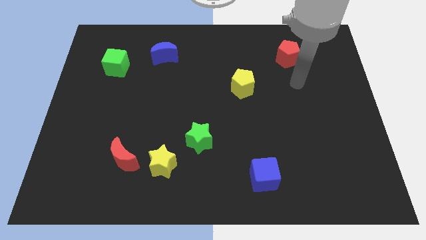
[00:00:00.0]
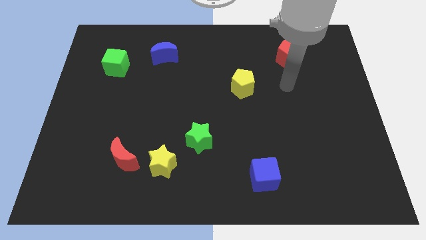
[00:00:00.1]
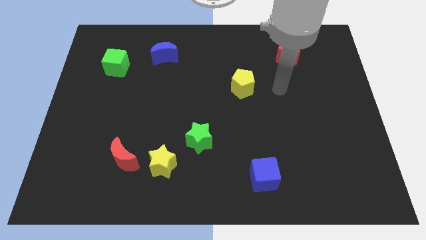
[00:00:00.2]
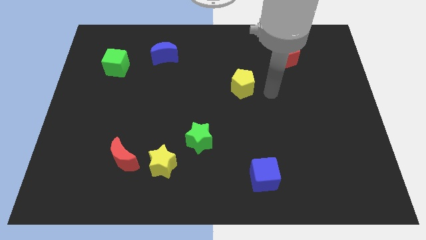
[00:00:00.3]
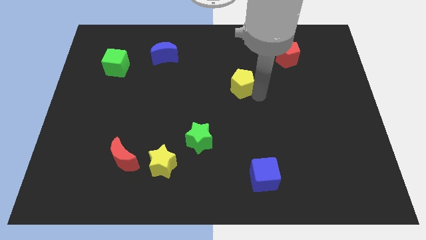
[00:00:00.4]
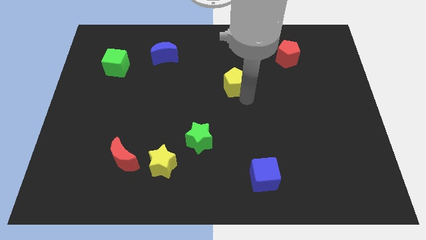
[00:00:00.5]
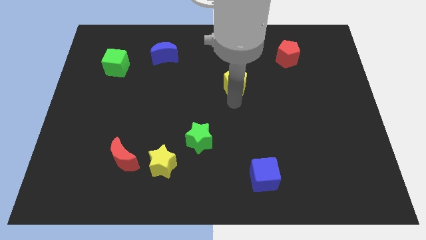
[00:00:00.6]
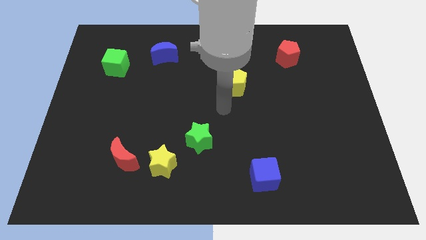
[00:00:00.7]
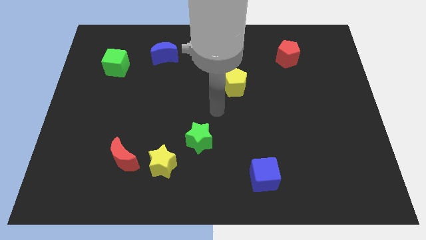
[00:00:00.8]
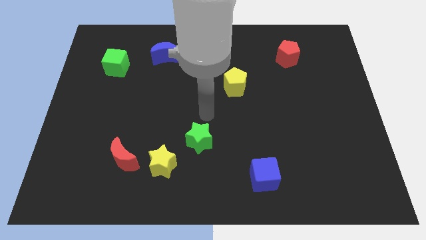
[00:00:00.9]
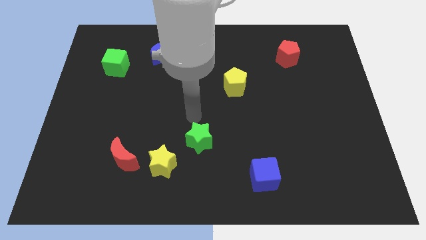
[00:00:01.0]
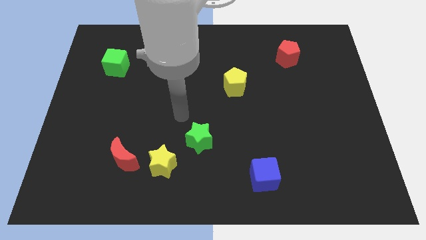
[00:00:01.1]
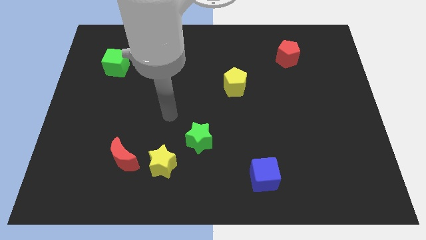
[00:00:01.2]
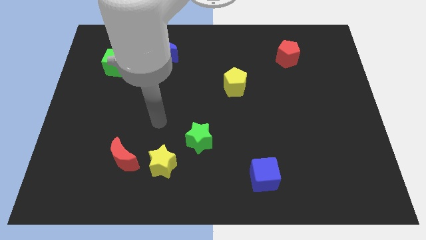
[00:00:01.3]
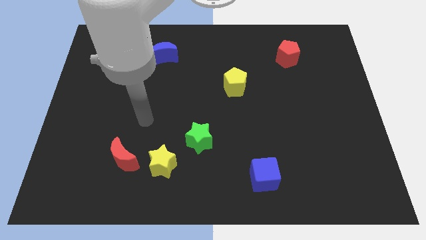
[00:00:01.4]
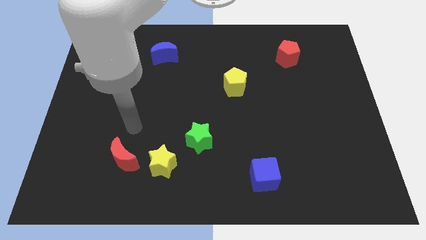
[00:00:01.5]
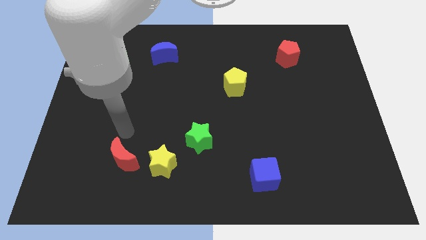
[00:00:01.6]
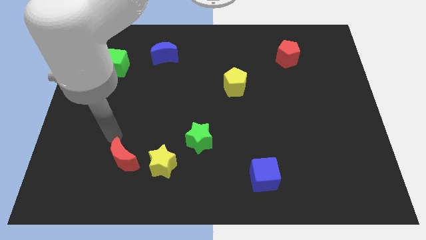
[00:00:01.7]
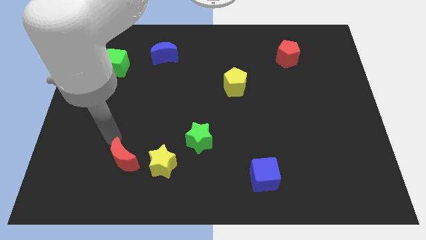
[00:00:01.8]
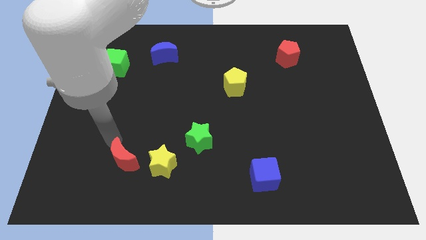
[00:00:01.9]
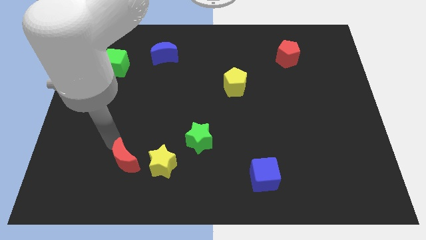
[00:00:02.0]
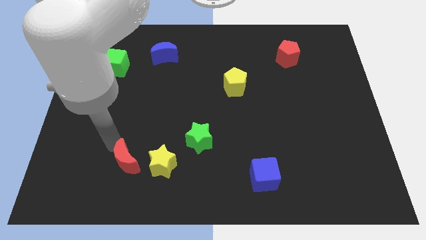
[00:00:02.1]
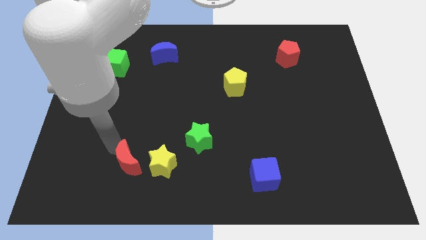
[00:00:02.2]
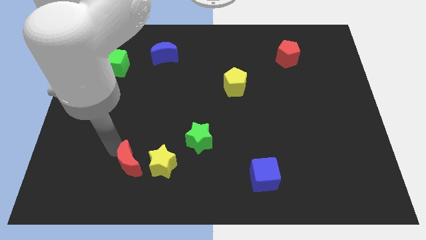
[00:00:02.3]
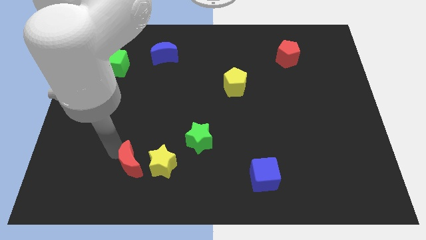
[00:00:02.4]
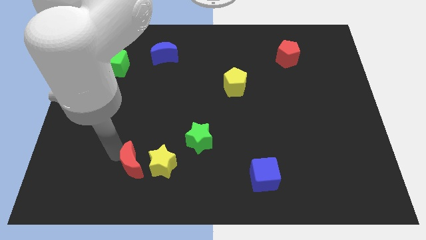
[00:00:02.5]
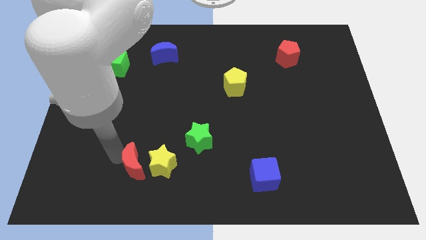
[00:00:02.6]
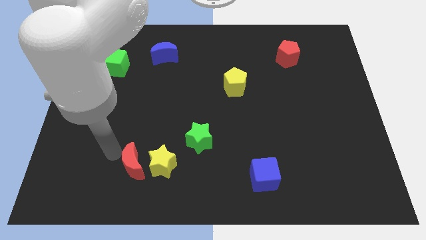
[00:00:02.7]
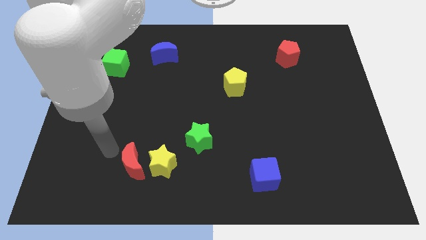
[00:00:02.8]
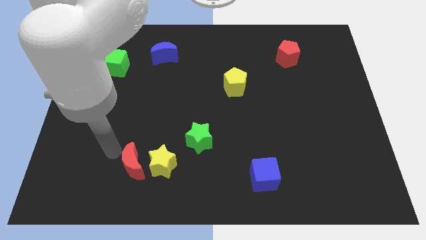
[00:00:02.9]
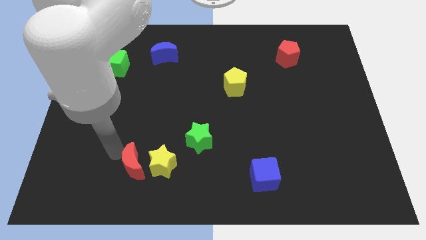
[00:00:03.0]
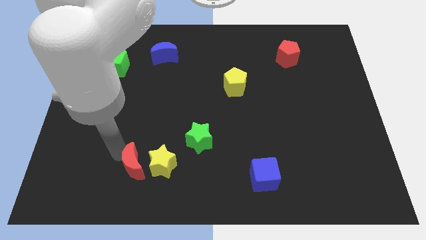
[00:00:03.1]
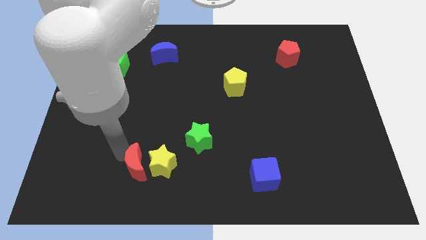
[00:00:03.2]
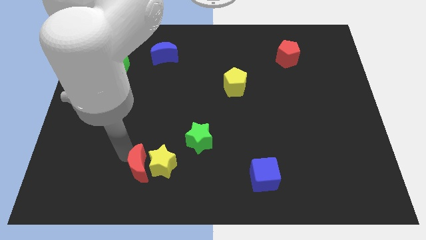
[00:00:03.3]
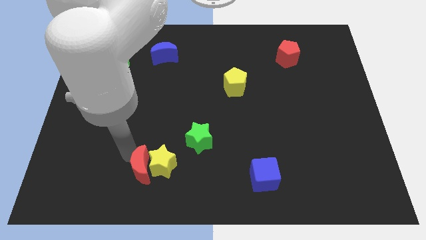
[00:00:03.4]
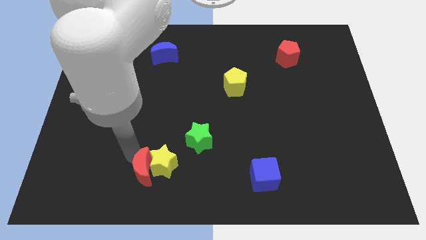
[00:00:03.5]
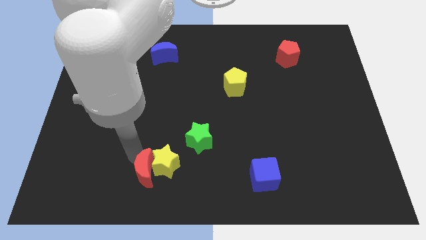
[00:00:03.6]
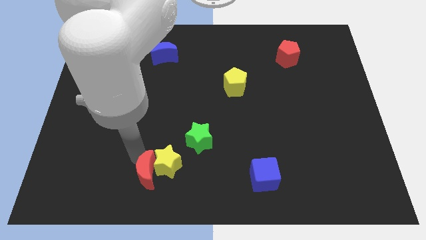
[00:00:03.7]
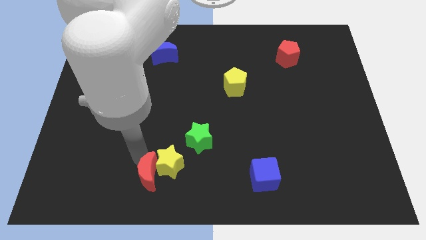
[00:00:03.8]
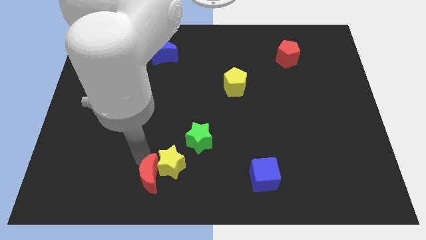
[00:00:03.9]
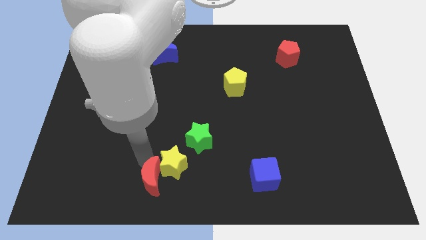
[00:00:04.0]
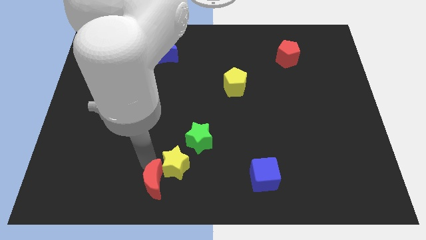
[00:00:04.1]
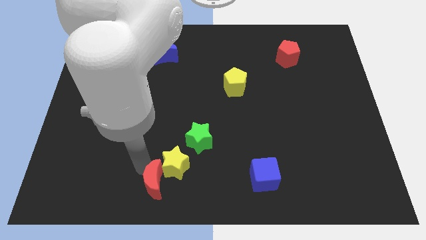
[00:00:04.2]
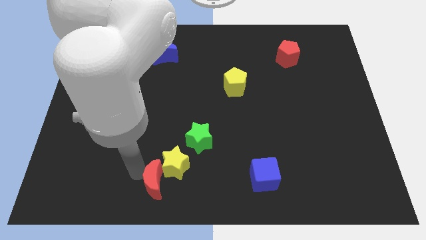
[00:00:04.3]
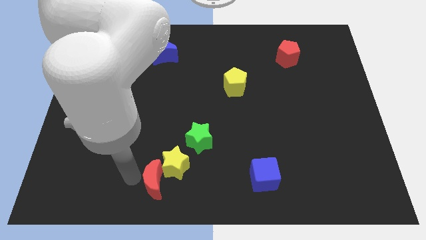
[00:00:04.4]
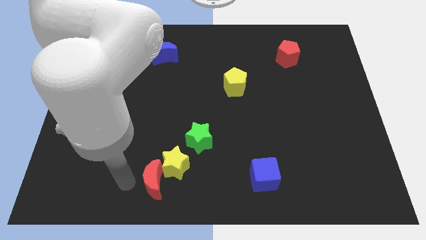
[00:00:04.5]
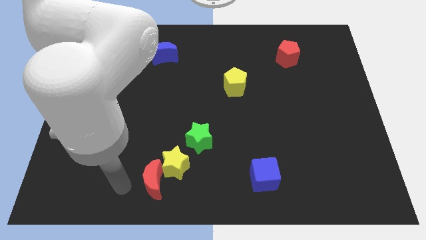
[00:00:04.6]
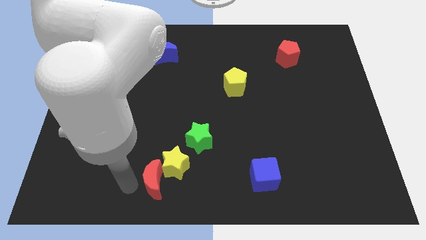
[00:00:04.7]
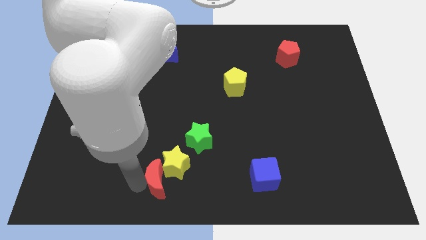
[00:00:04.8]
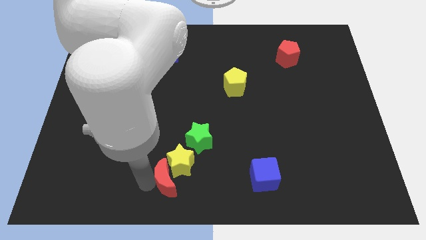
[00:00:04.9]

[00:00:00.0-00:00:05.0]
move the red moon to the right slightly

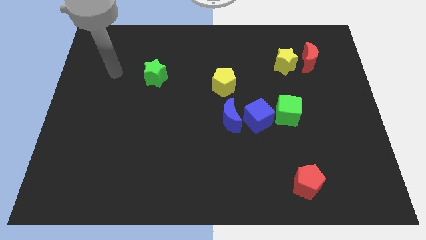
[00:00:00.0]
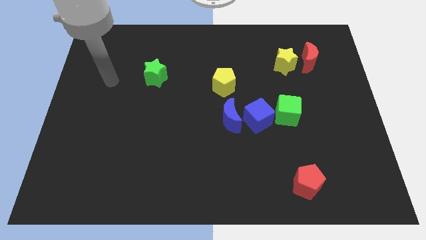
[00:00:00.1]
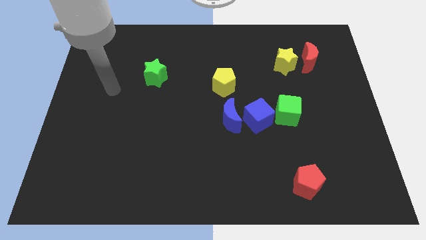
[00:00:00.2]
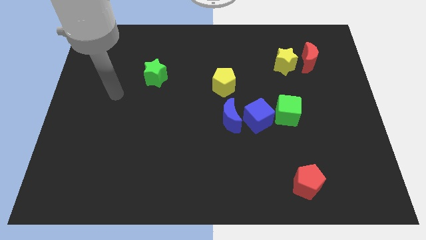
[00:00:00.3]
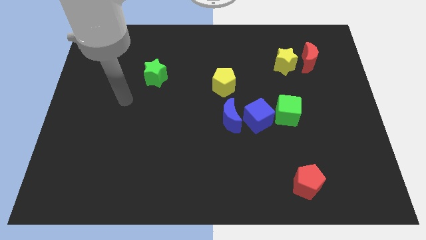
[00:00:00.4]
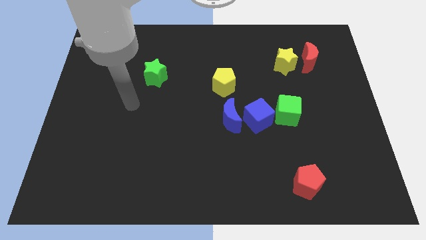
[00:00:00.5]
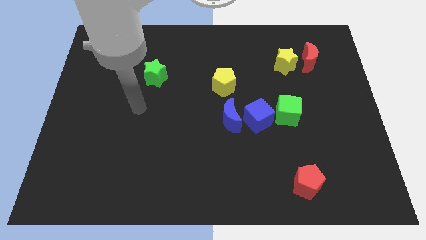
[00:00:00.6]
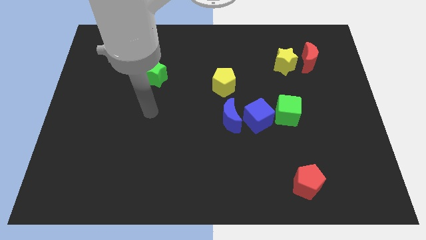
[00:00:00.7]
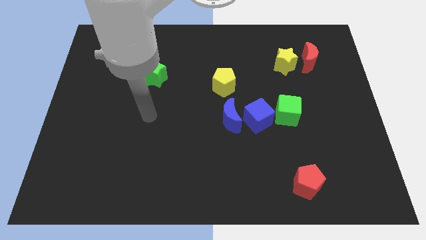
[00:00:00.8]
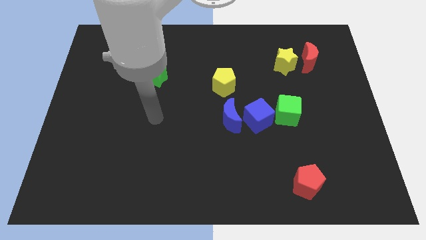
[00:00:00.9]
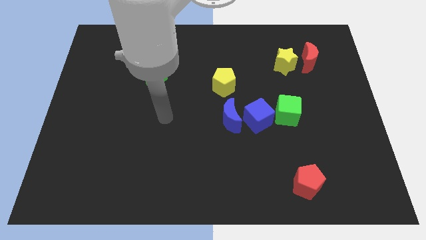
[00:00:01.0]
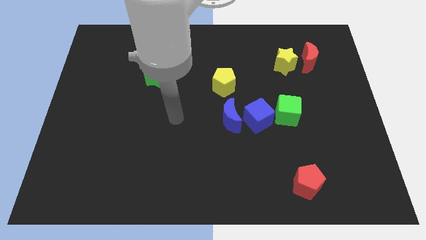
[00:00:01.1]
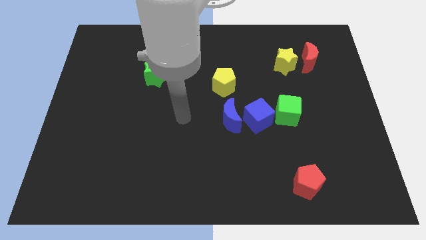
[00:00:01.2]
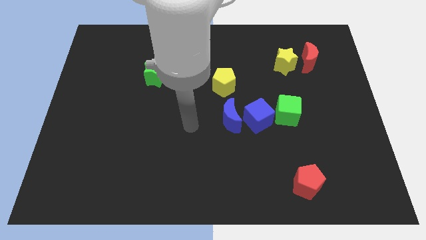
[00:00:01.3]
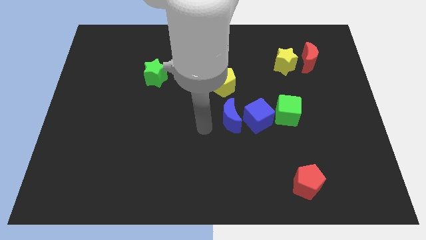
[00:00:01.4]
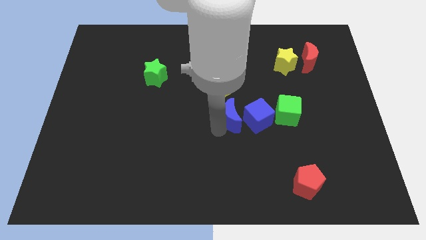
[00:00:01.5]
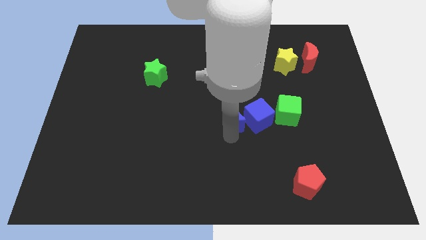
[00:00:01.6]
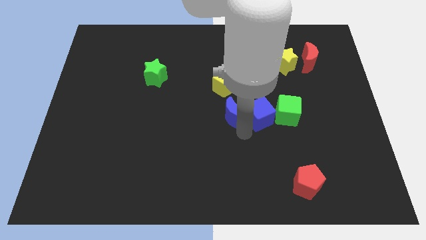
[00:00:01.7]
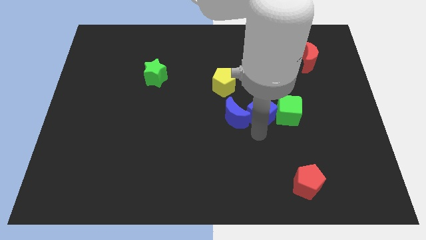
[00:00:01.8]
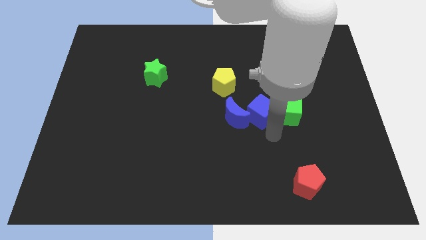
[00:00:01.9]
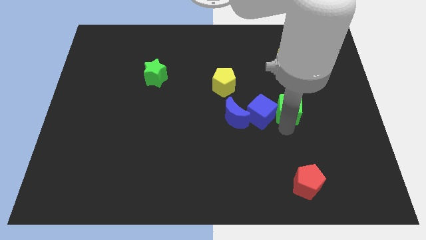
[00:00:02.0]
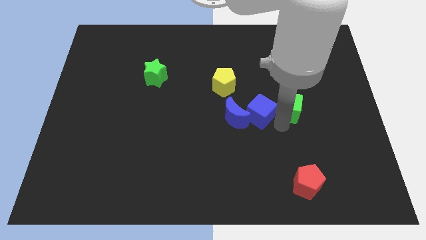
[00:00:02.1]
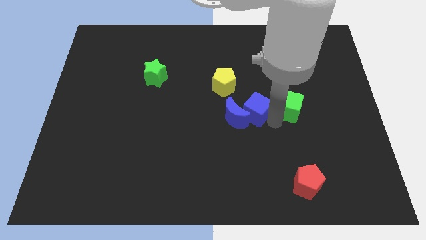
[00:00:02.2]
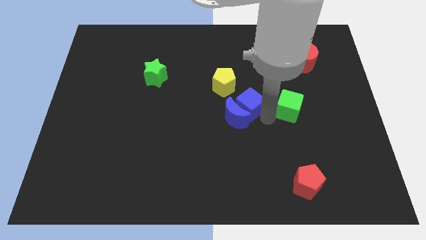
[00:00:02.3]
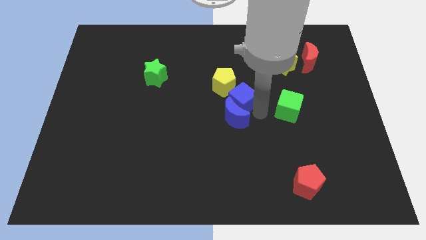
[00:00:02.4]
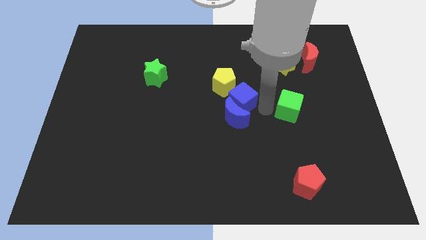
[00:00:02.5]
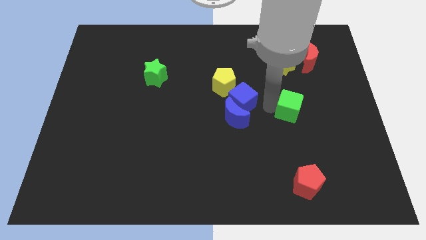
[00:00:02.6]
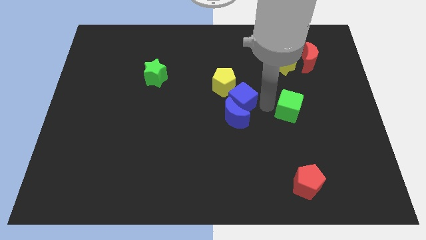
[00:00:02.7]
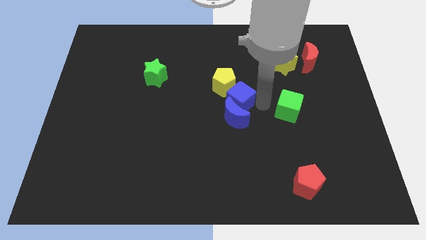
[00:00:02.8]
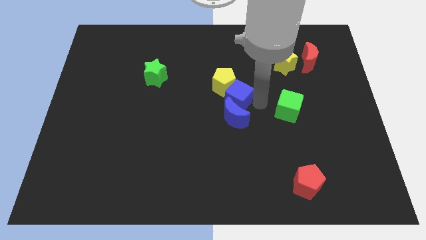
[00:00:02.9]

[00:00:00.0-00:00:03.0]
push the blue cube a bit upwards and to the left
